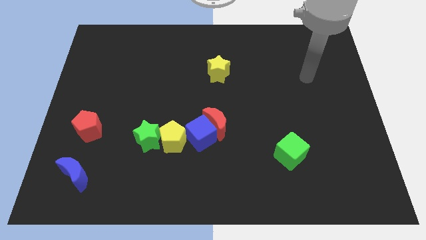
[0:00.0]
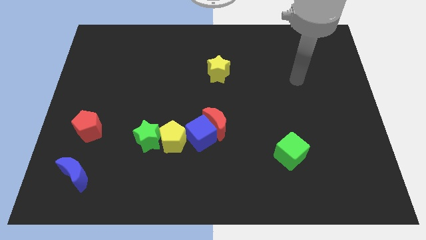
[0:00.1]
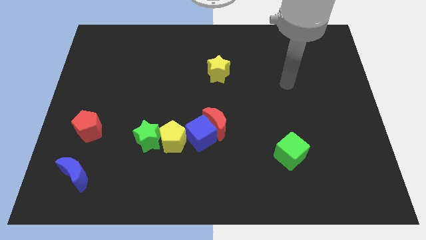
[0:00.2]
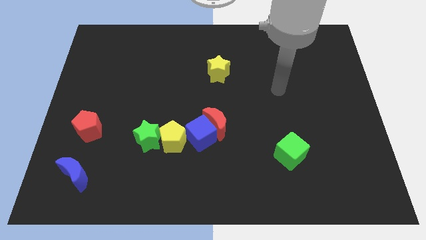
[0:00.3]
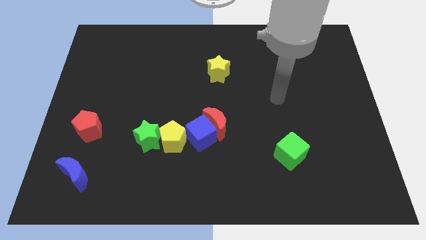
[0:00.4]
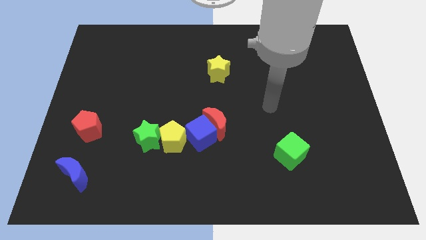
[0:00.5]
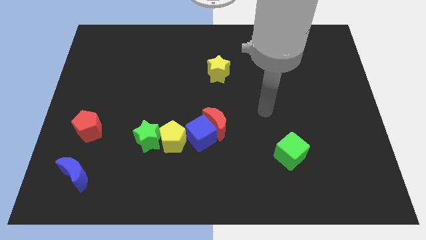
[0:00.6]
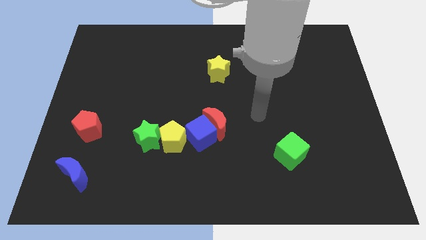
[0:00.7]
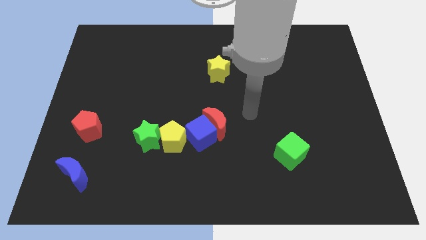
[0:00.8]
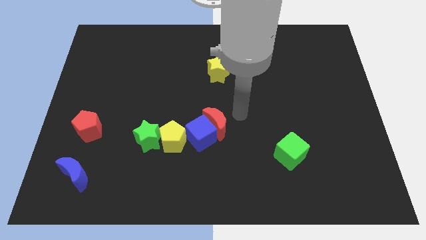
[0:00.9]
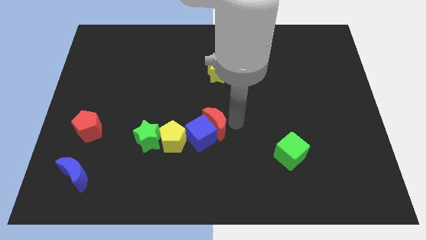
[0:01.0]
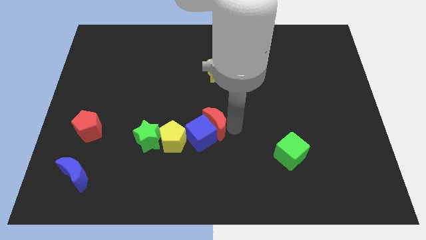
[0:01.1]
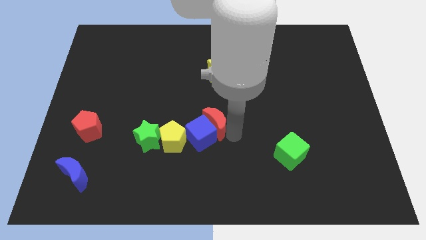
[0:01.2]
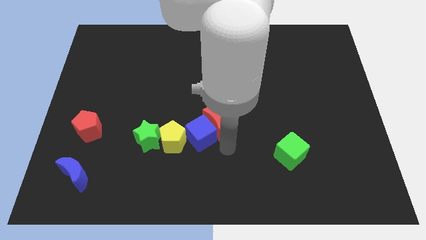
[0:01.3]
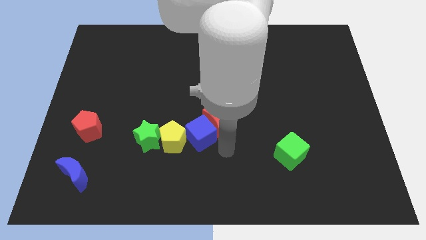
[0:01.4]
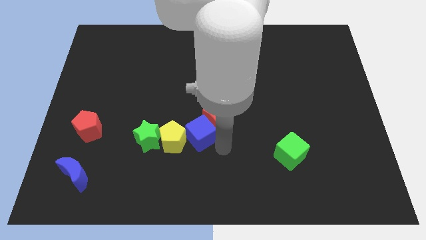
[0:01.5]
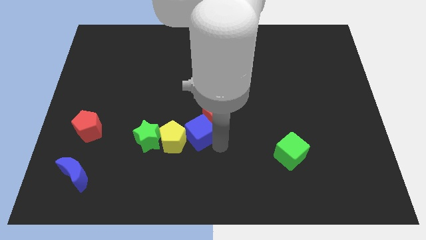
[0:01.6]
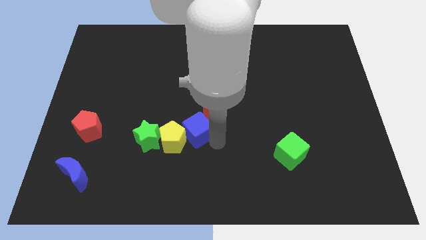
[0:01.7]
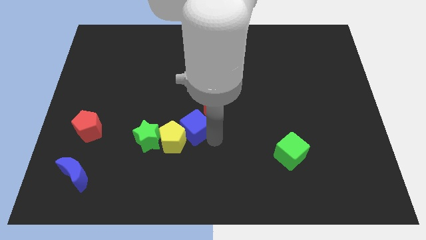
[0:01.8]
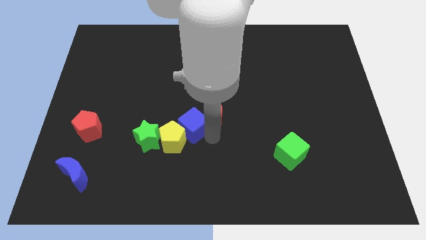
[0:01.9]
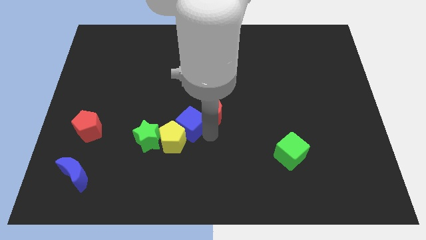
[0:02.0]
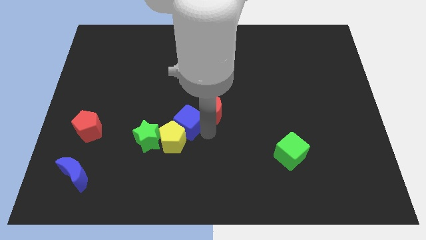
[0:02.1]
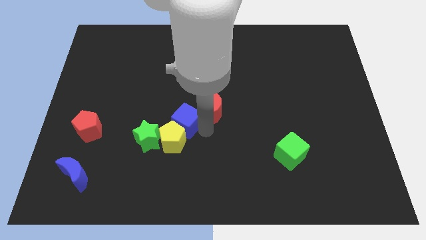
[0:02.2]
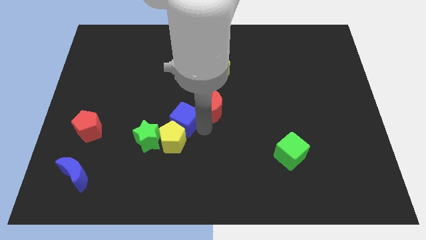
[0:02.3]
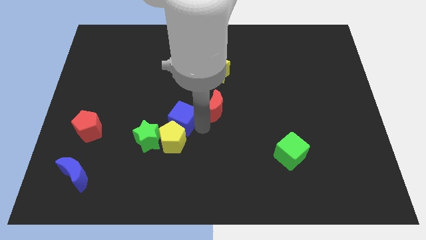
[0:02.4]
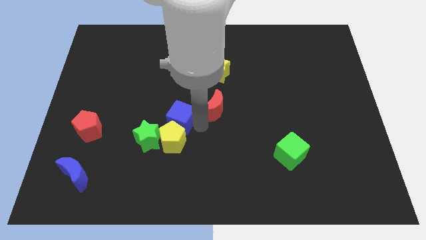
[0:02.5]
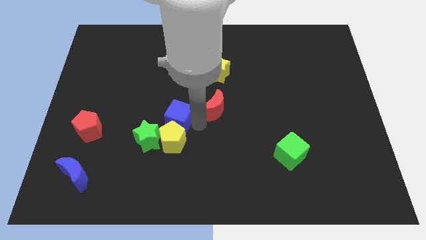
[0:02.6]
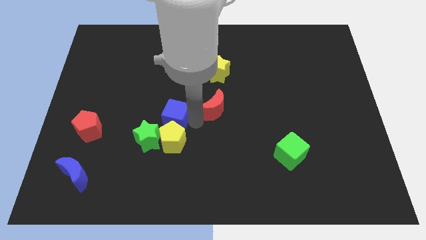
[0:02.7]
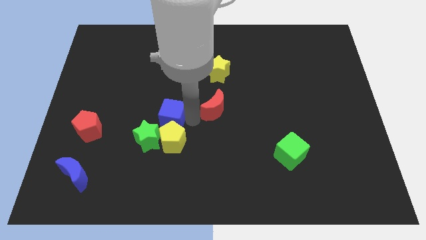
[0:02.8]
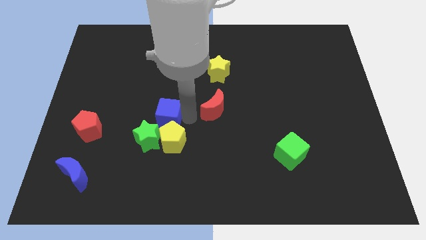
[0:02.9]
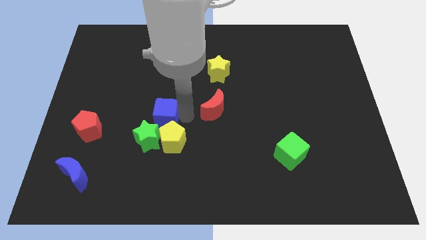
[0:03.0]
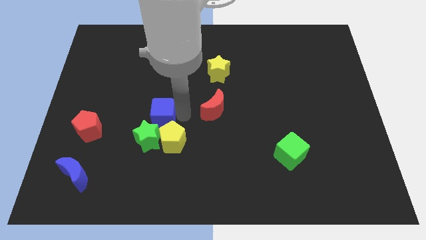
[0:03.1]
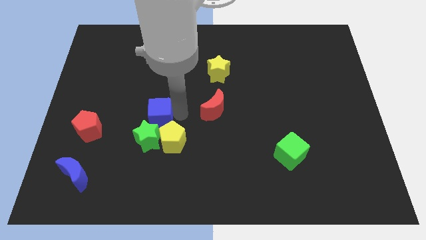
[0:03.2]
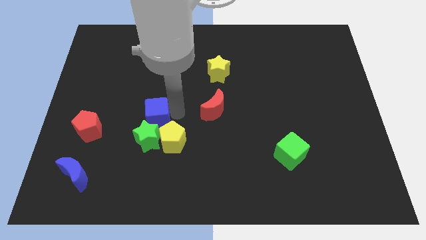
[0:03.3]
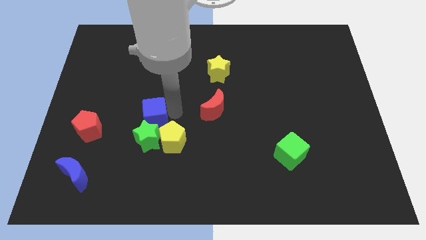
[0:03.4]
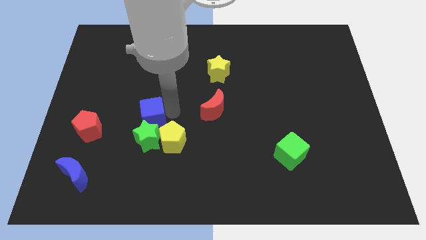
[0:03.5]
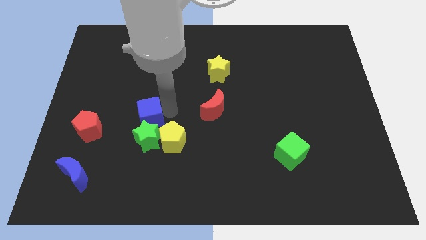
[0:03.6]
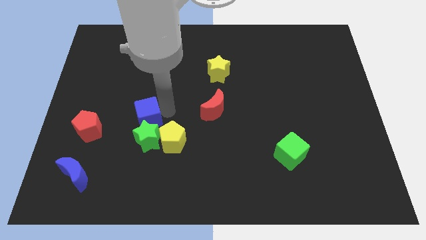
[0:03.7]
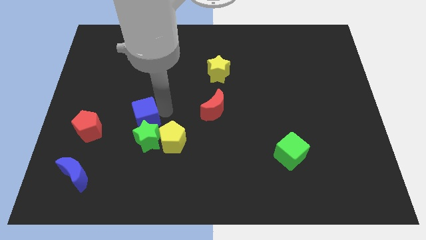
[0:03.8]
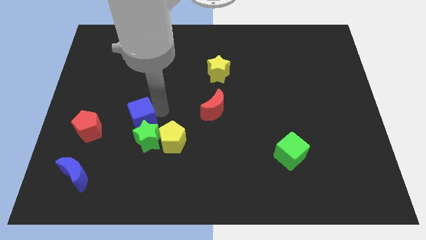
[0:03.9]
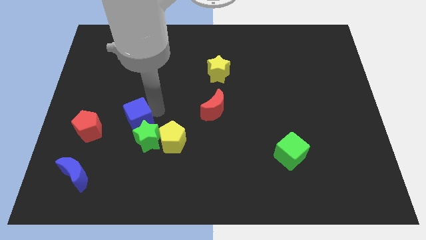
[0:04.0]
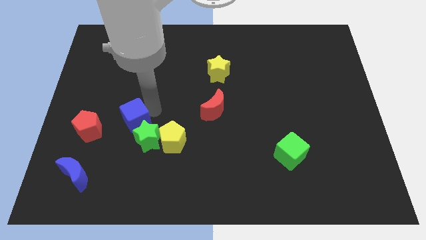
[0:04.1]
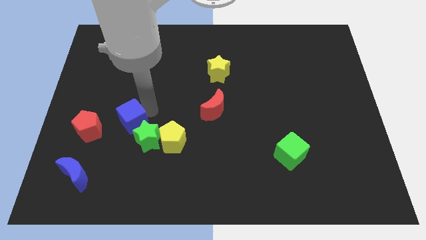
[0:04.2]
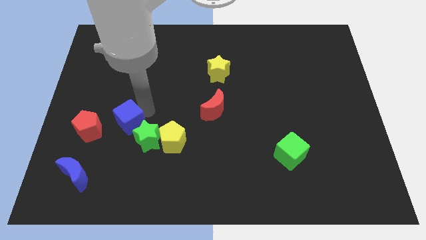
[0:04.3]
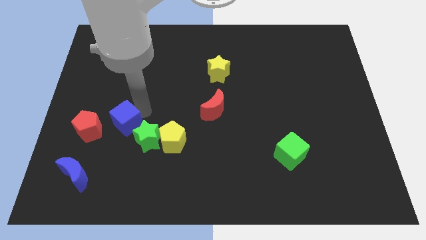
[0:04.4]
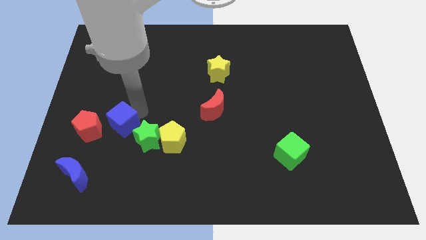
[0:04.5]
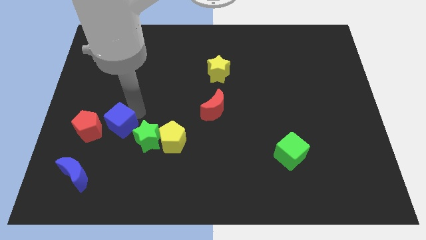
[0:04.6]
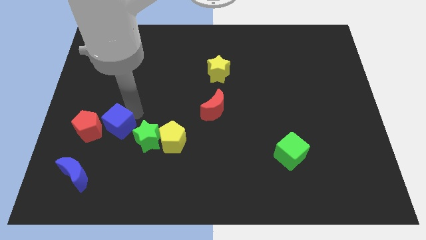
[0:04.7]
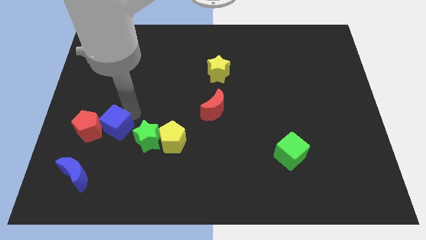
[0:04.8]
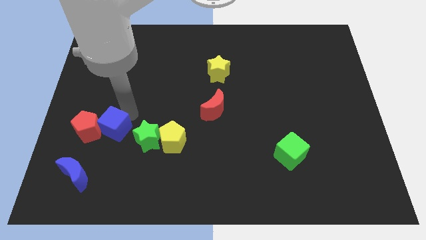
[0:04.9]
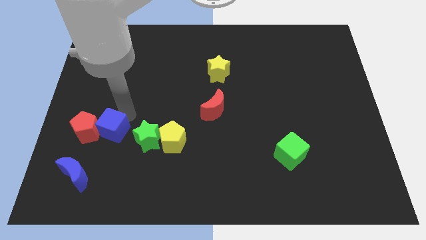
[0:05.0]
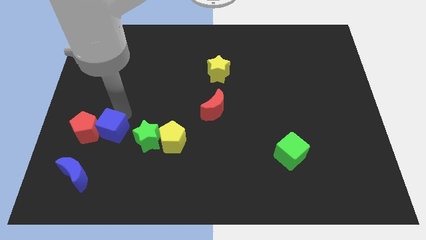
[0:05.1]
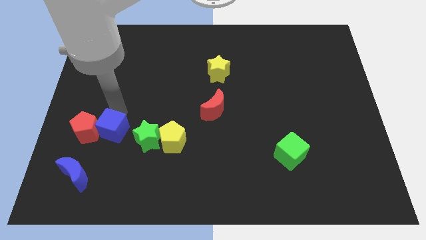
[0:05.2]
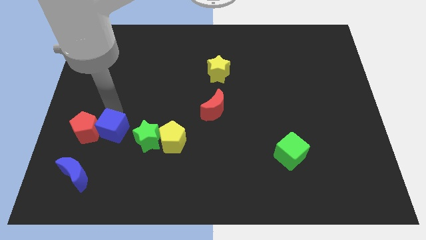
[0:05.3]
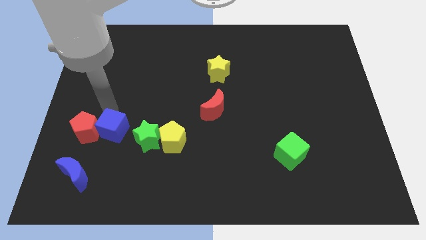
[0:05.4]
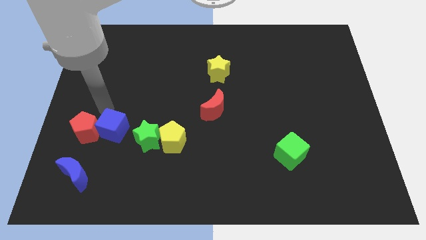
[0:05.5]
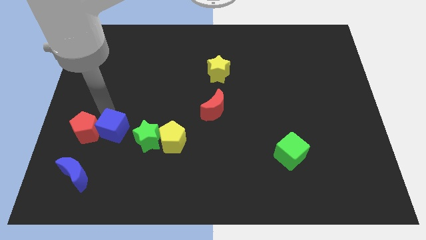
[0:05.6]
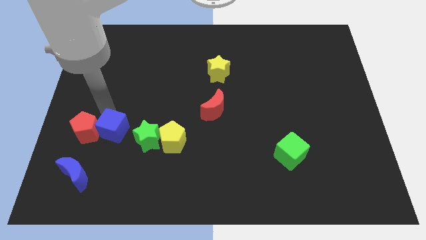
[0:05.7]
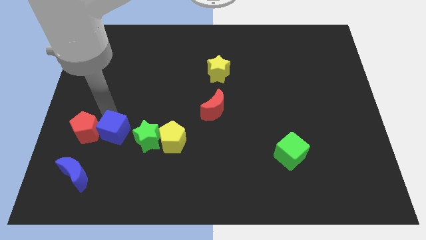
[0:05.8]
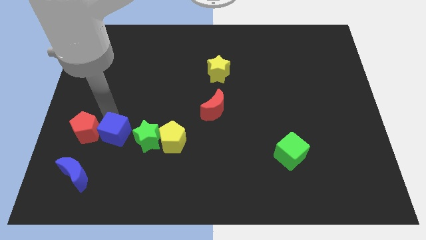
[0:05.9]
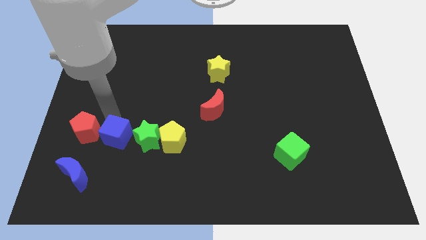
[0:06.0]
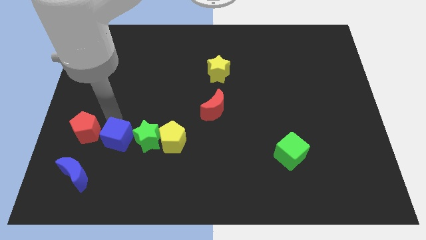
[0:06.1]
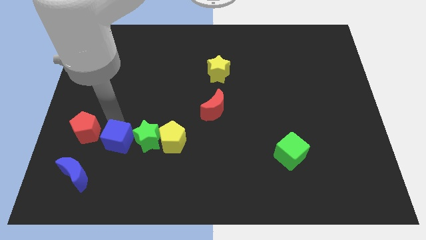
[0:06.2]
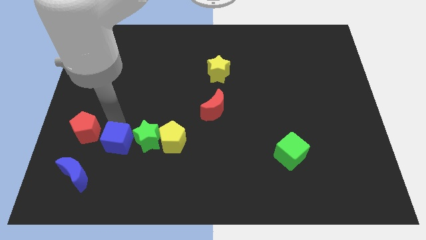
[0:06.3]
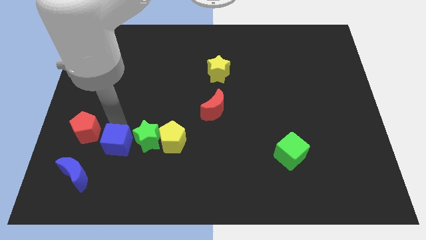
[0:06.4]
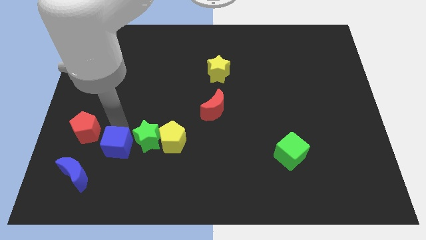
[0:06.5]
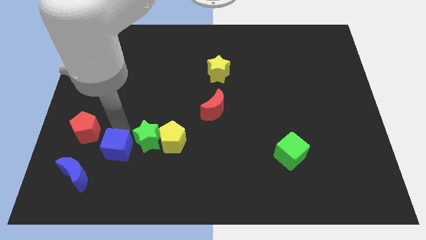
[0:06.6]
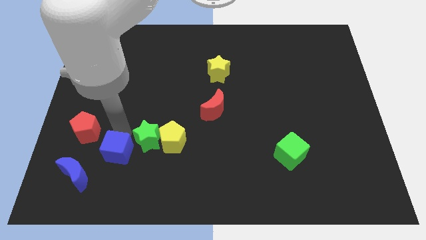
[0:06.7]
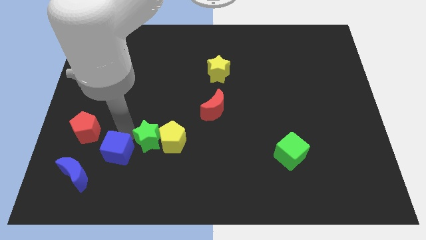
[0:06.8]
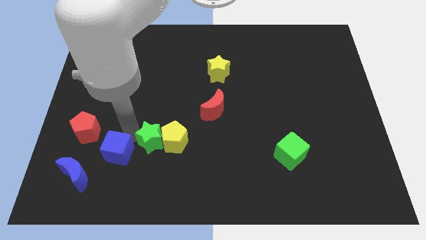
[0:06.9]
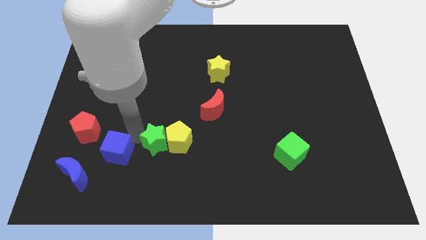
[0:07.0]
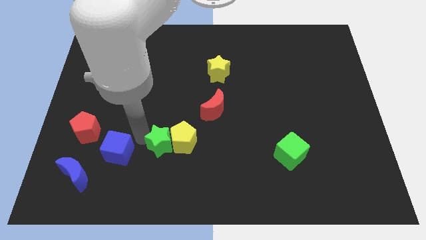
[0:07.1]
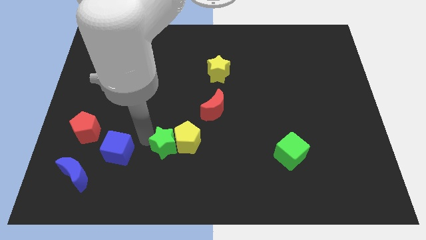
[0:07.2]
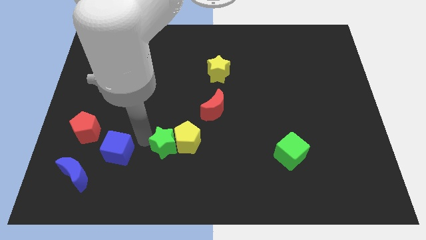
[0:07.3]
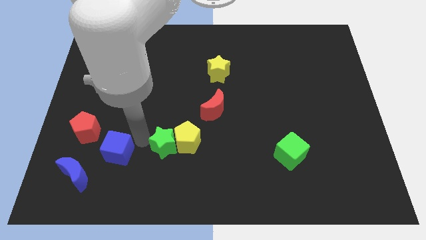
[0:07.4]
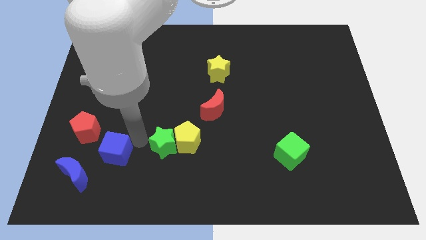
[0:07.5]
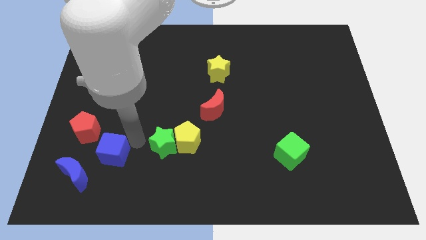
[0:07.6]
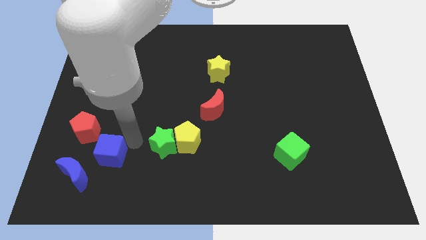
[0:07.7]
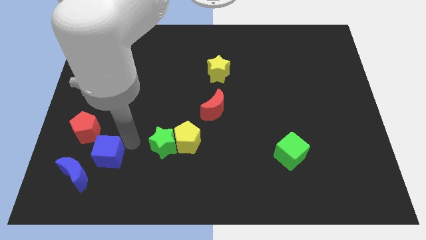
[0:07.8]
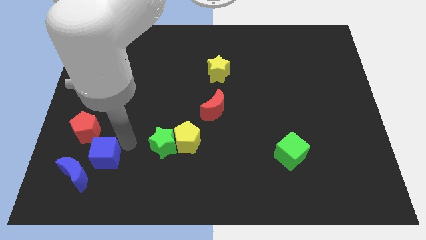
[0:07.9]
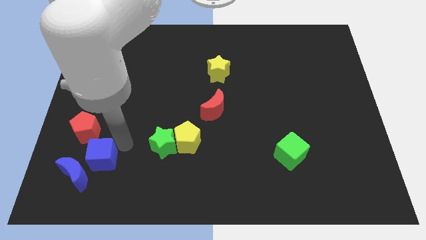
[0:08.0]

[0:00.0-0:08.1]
move the blue cube next to the blue moon
